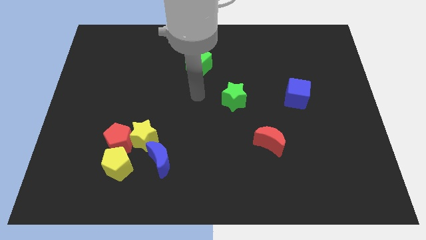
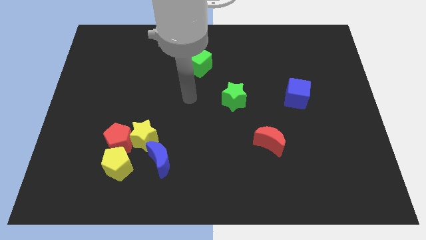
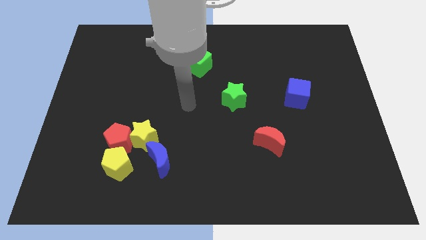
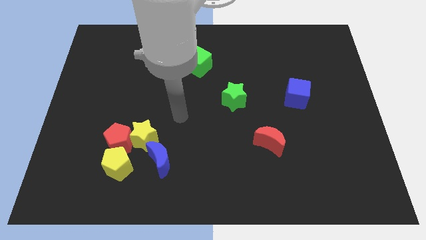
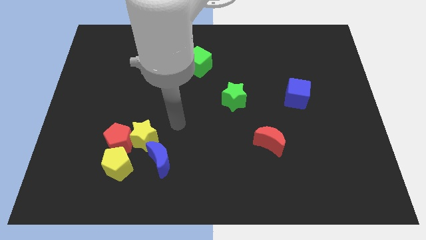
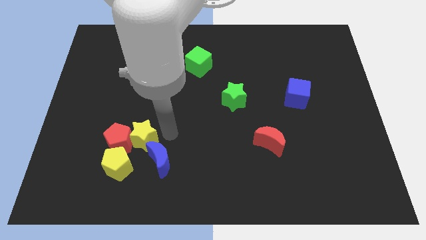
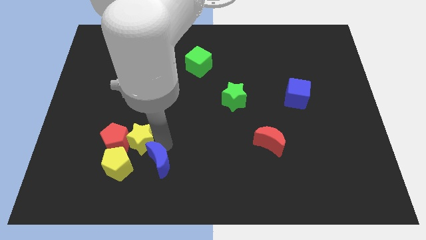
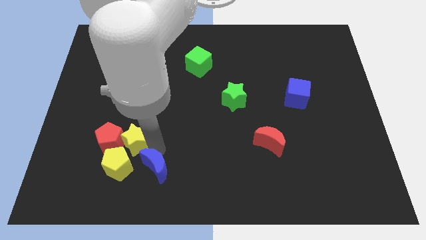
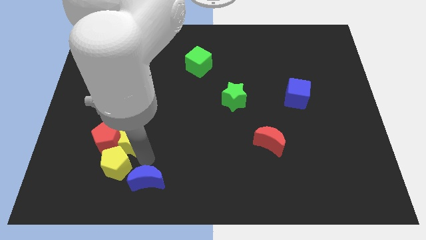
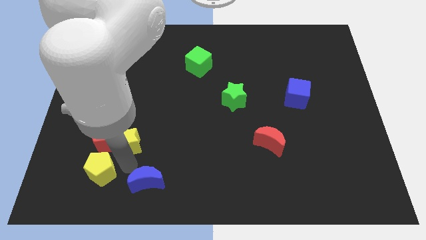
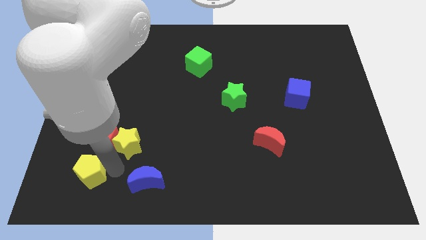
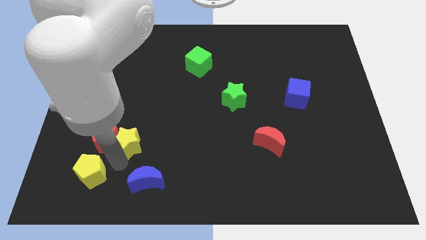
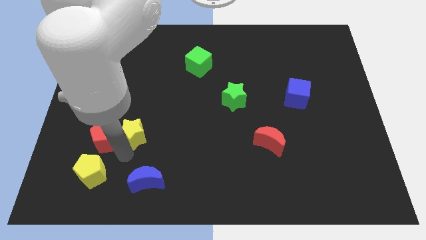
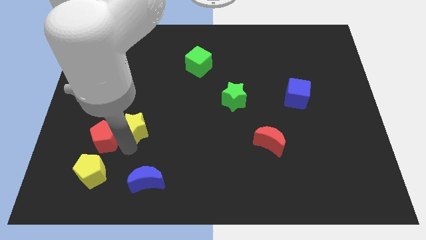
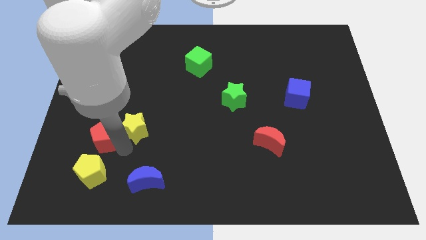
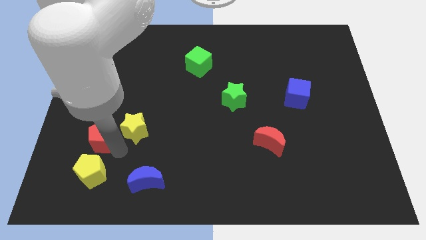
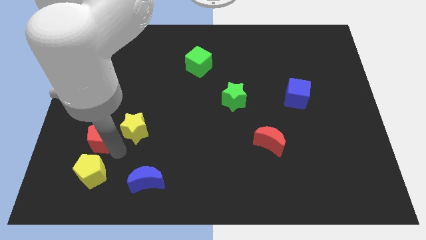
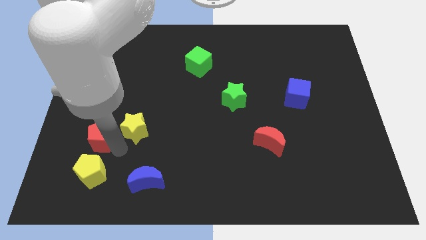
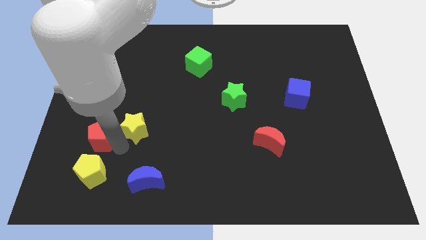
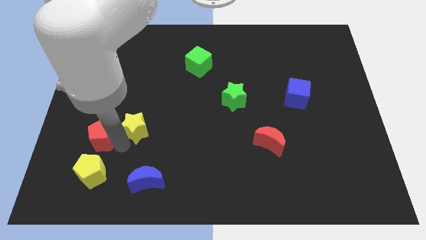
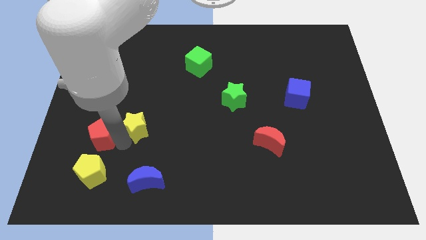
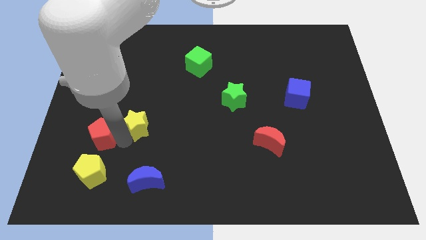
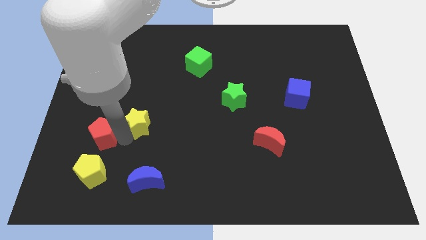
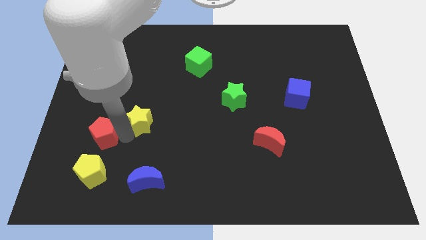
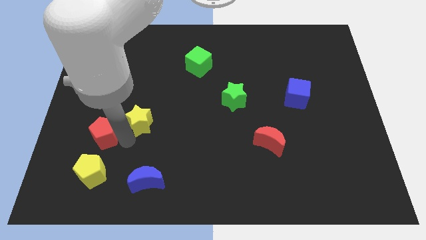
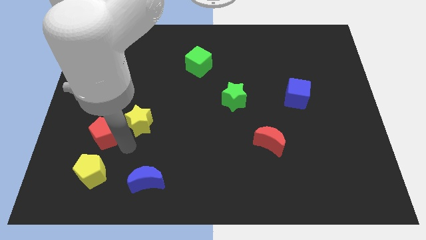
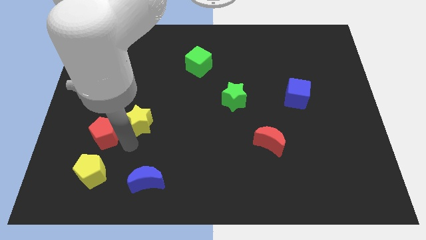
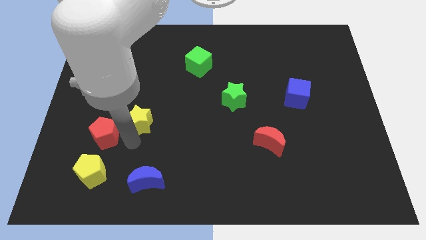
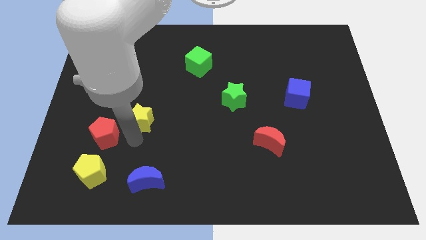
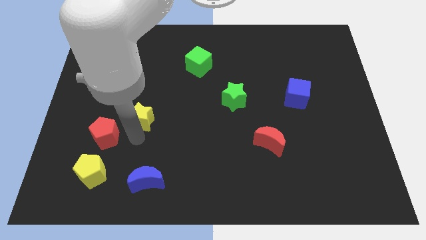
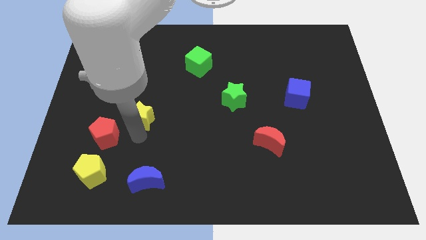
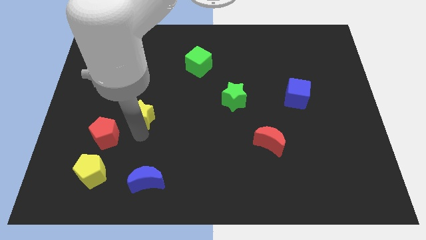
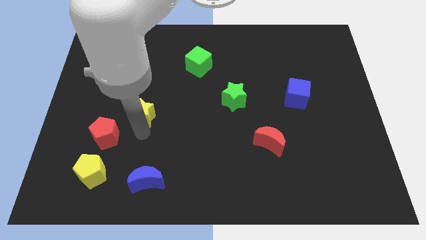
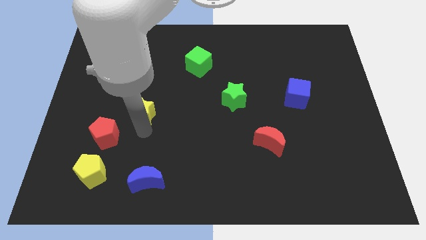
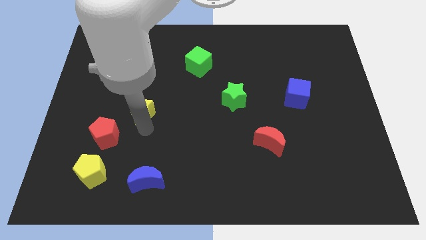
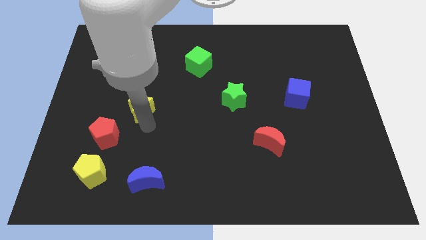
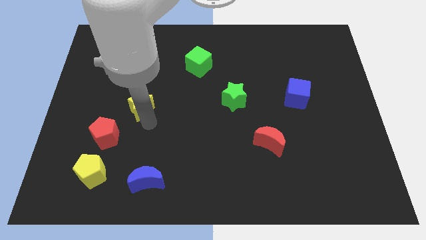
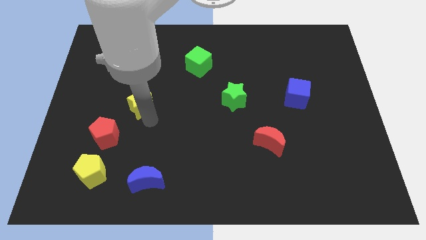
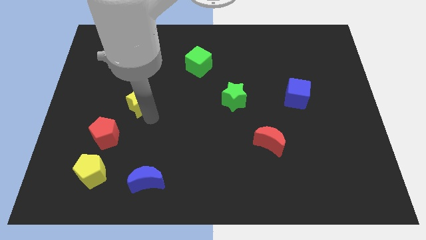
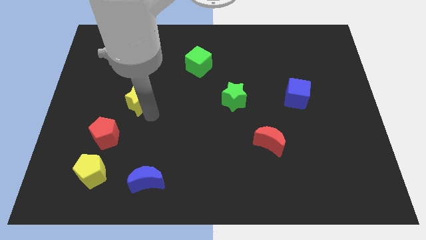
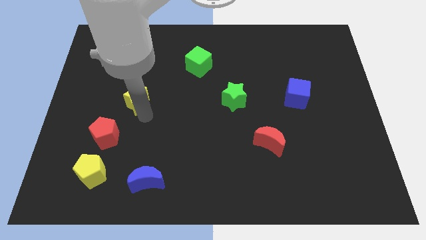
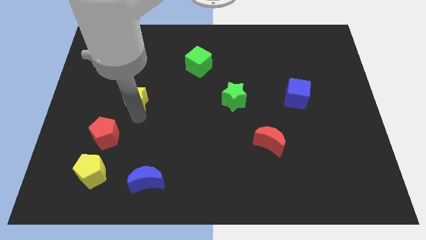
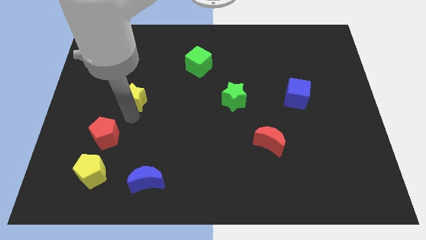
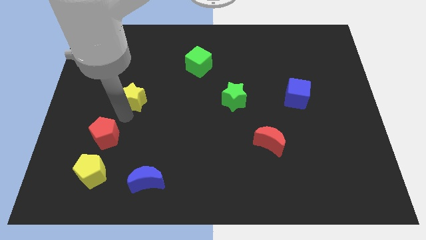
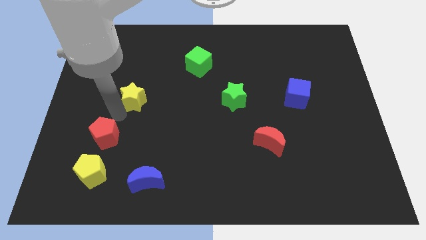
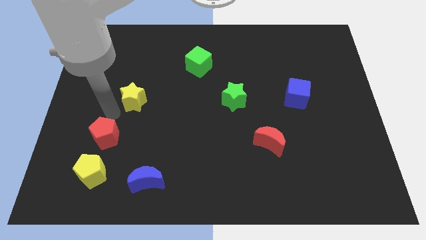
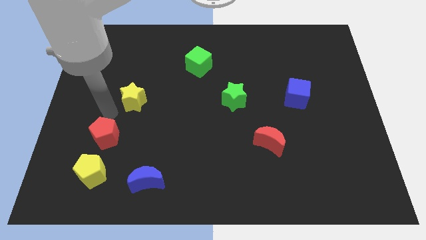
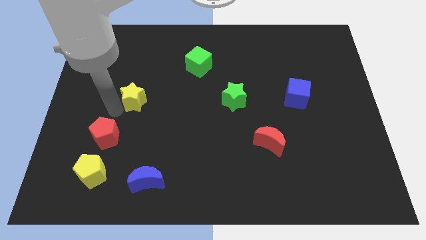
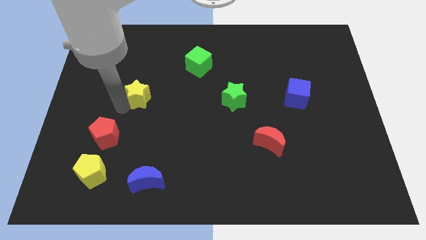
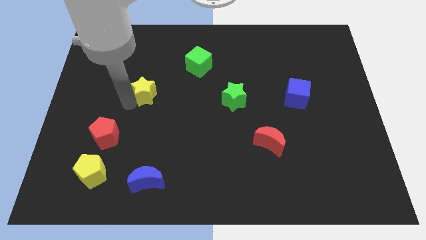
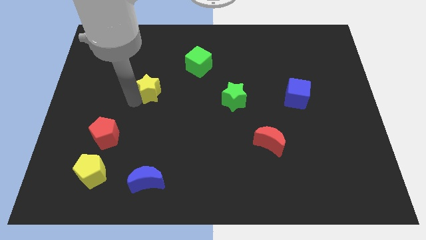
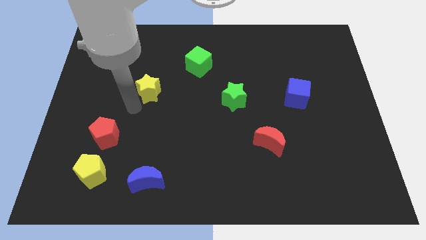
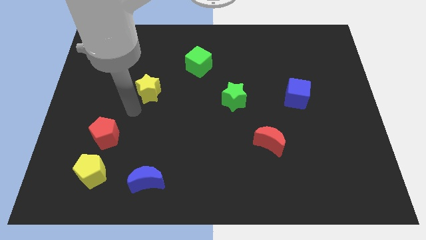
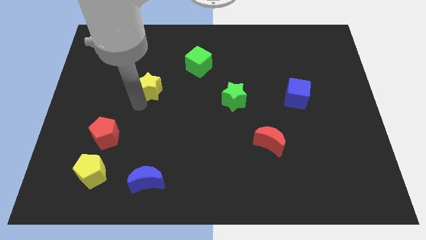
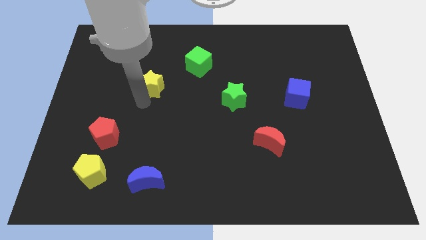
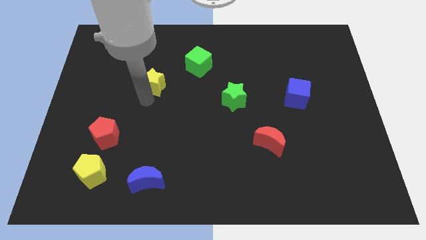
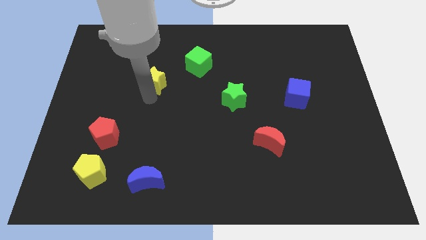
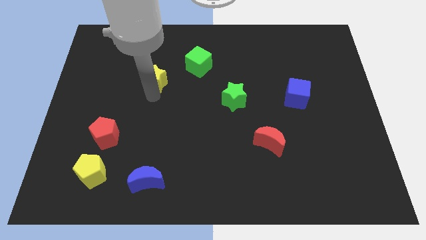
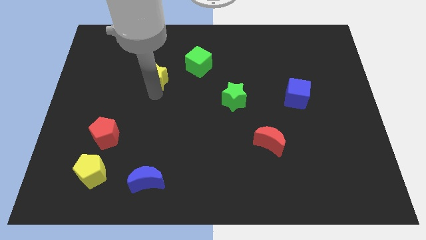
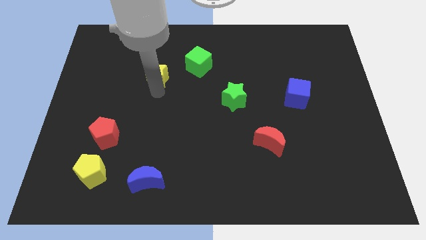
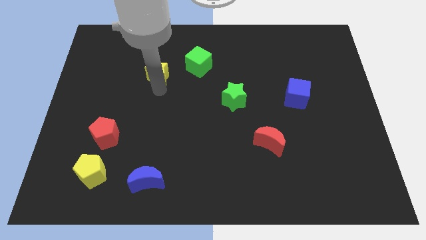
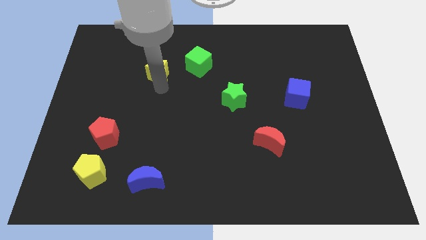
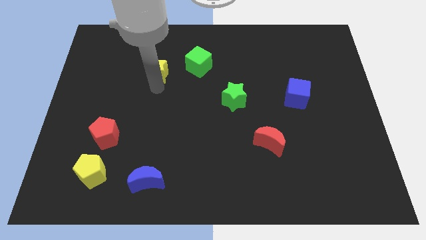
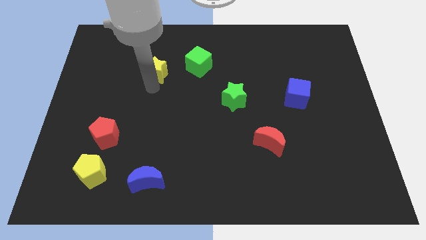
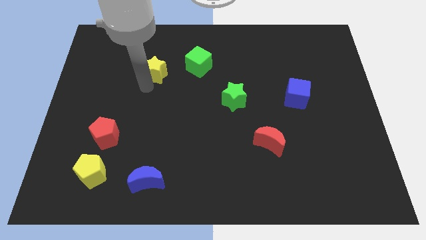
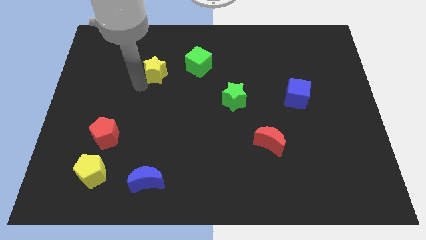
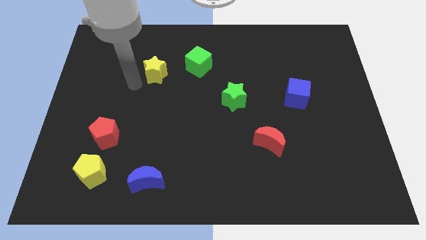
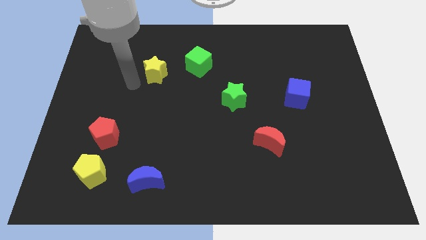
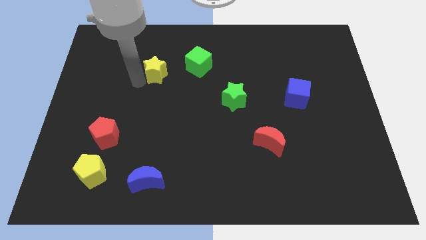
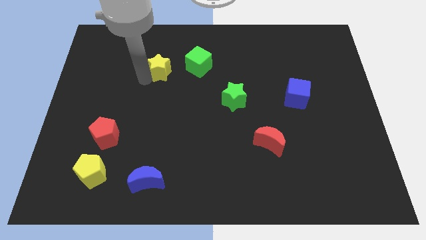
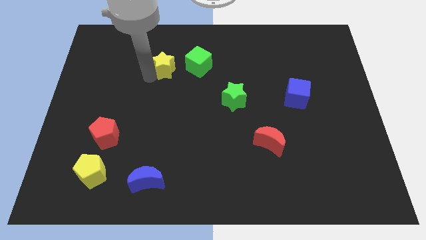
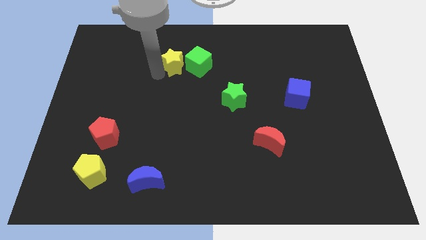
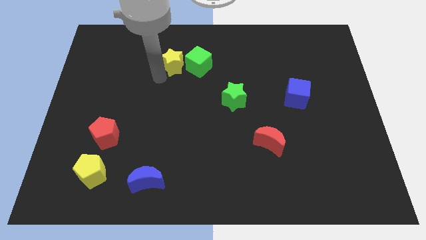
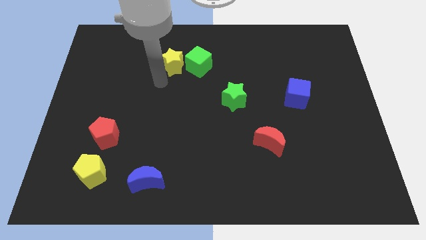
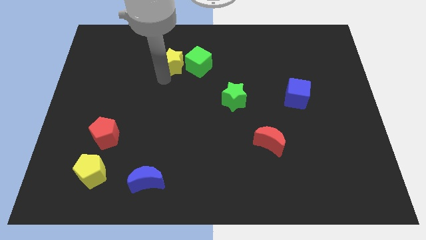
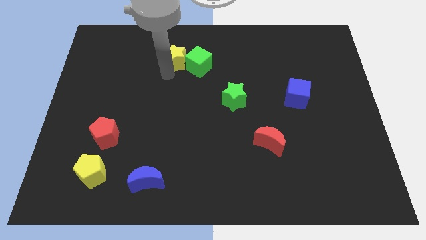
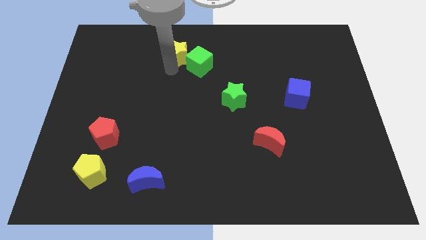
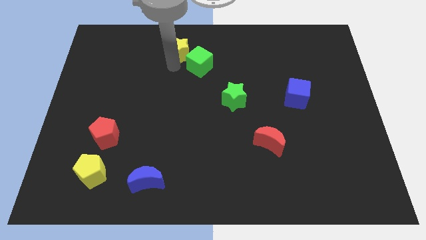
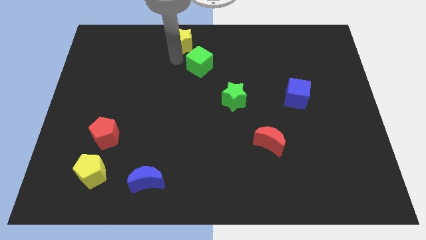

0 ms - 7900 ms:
slide the yellow star to the top
